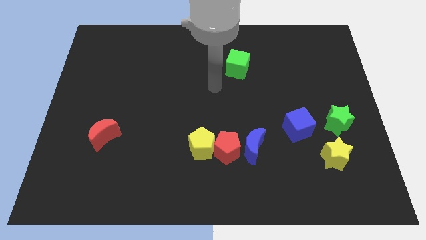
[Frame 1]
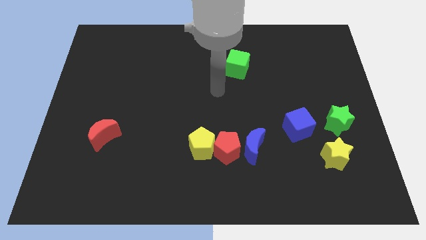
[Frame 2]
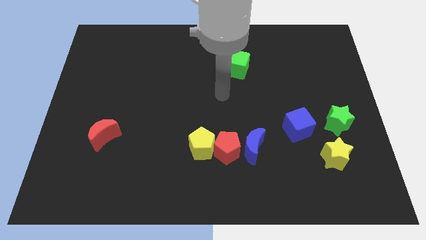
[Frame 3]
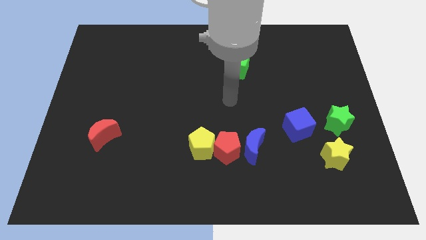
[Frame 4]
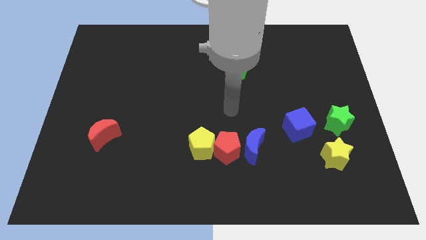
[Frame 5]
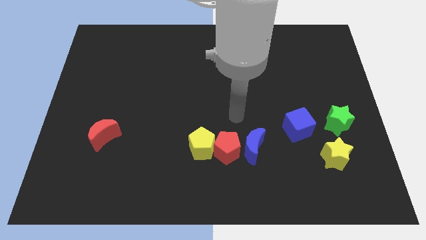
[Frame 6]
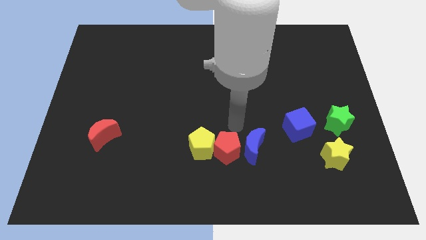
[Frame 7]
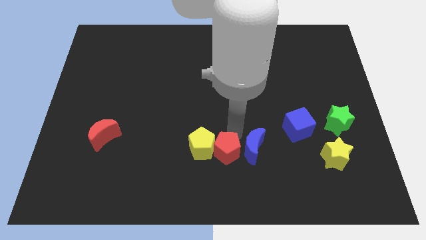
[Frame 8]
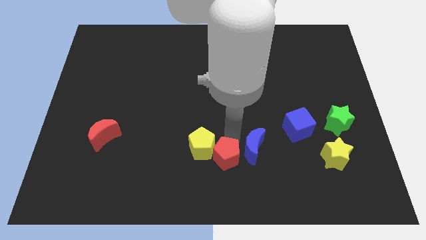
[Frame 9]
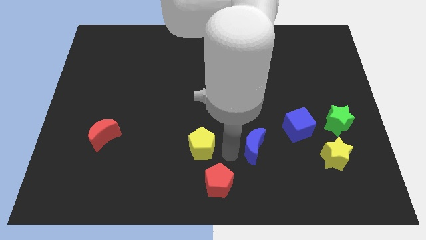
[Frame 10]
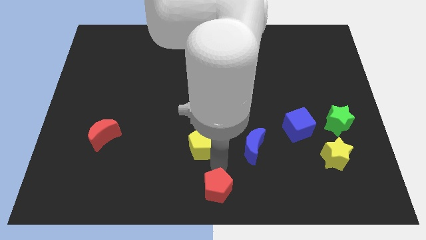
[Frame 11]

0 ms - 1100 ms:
separate the yellow pentagon from the red pentagon

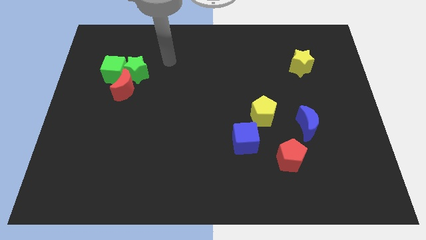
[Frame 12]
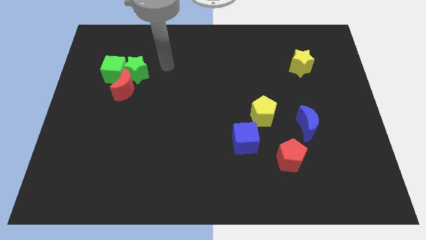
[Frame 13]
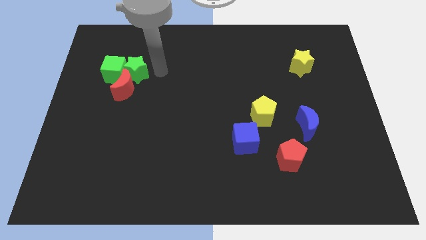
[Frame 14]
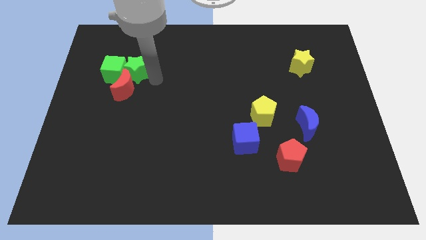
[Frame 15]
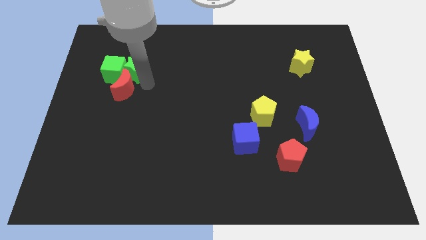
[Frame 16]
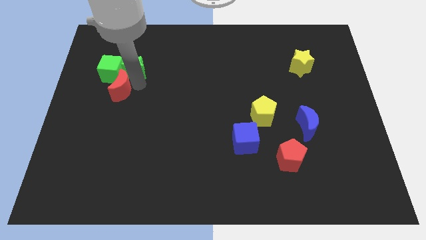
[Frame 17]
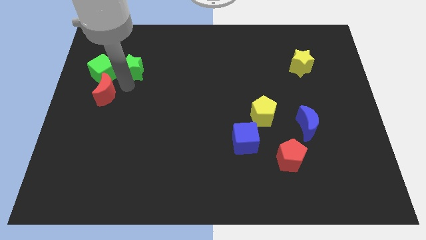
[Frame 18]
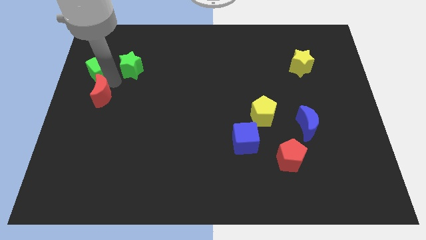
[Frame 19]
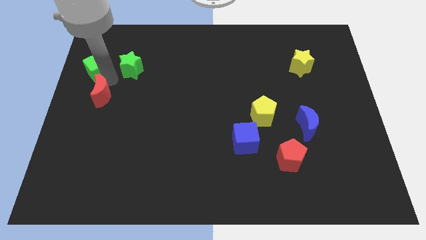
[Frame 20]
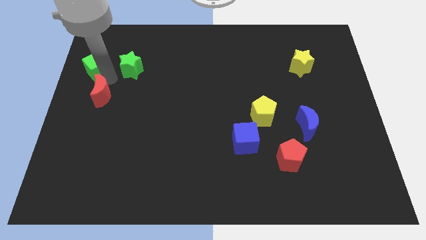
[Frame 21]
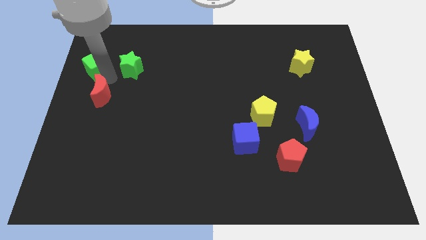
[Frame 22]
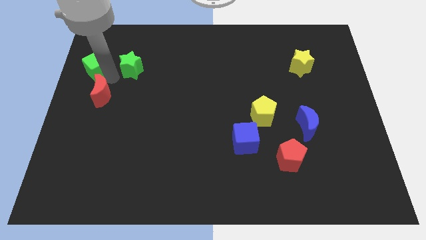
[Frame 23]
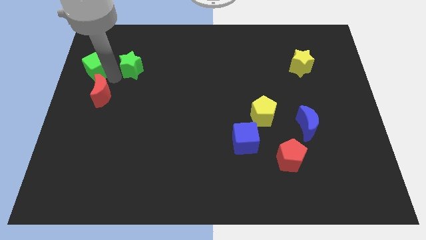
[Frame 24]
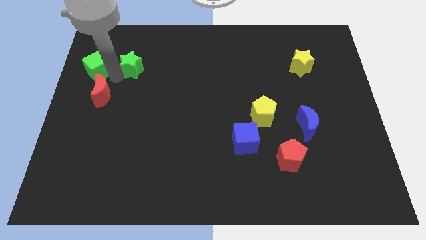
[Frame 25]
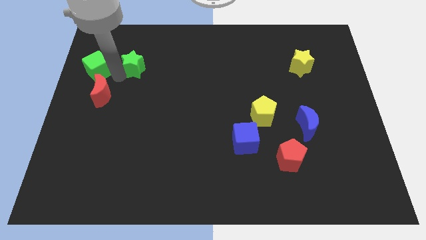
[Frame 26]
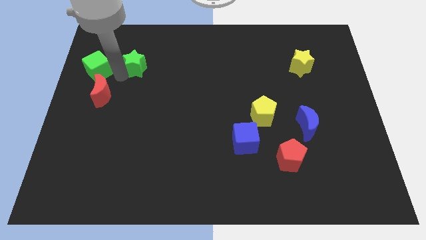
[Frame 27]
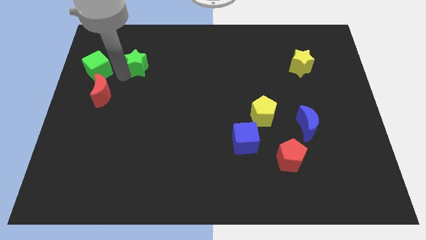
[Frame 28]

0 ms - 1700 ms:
separate the green star from the green cube and red moon

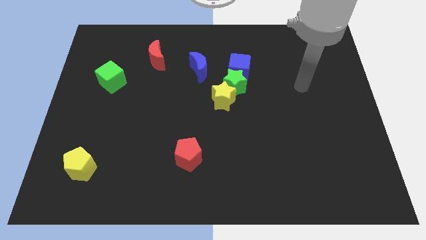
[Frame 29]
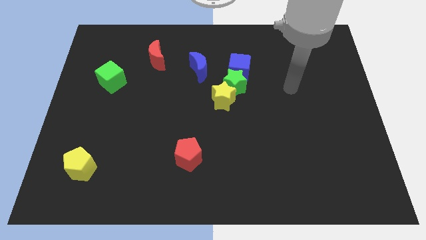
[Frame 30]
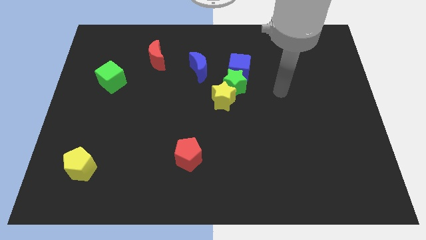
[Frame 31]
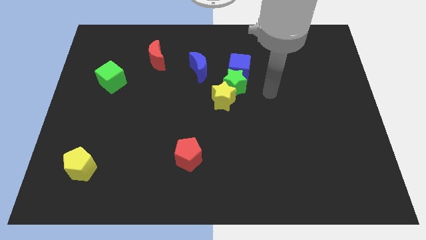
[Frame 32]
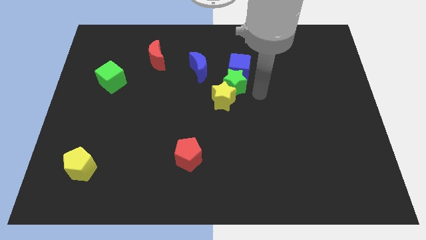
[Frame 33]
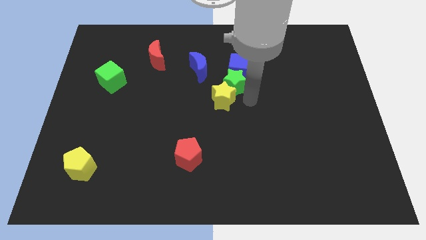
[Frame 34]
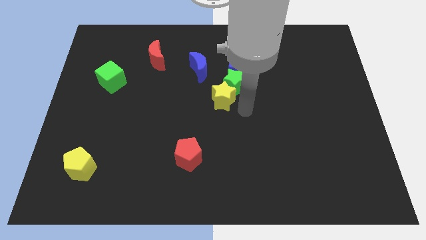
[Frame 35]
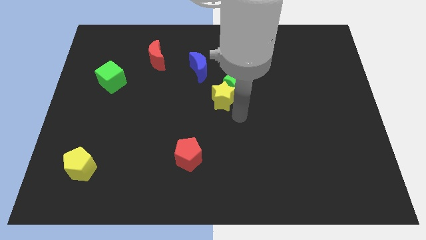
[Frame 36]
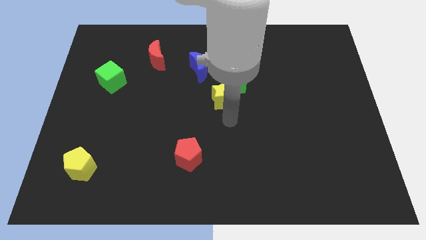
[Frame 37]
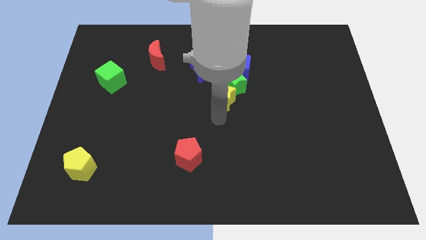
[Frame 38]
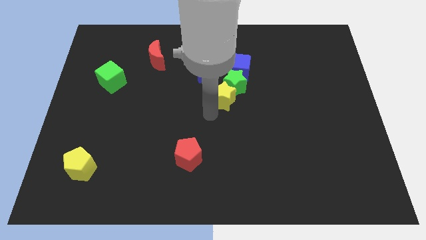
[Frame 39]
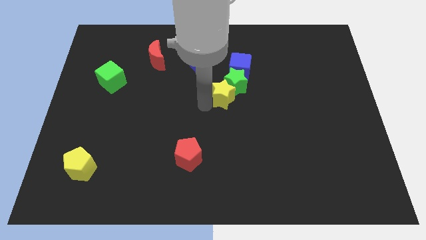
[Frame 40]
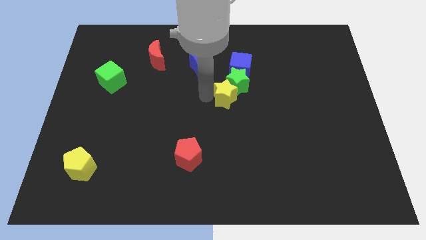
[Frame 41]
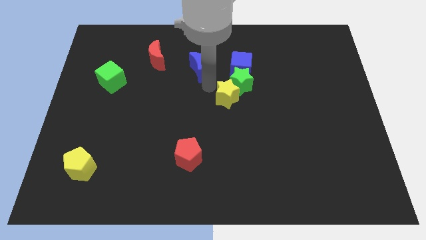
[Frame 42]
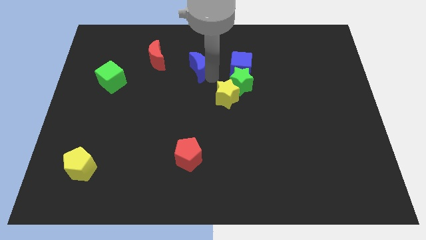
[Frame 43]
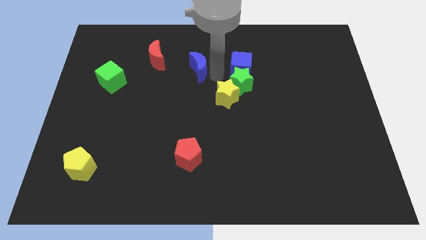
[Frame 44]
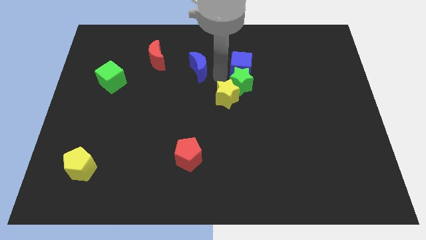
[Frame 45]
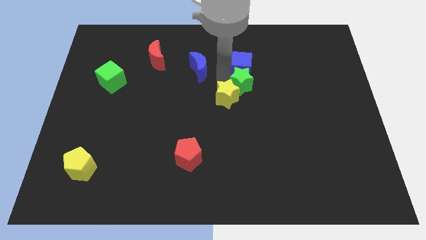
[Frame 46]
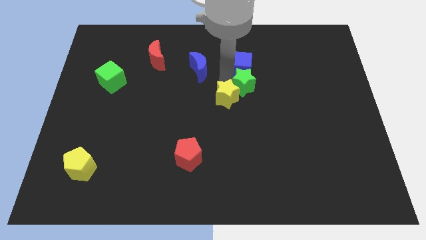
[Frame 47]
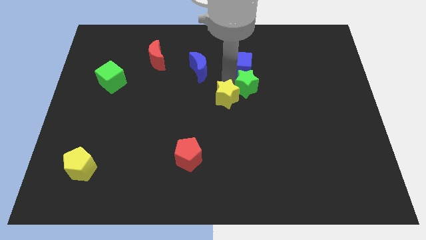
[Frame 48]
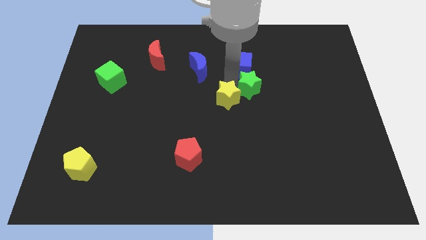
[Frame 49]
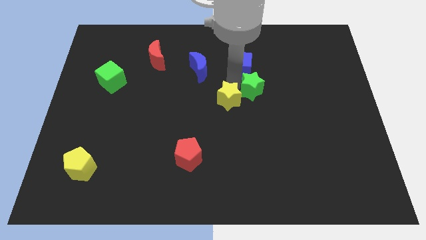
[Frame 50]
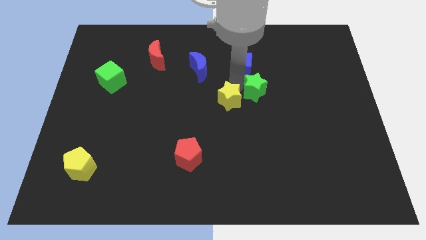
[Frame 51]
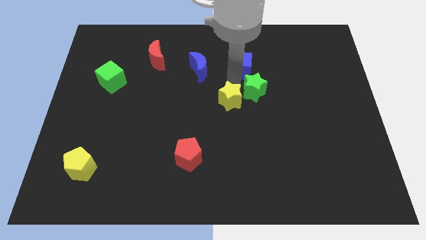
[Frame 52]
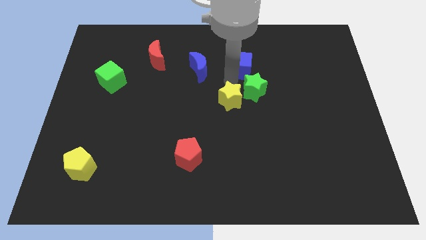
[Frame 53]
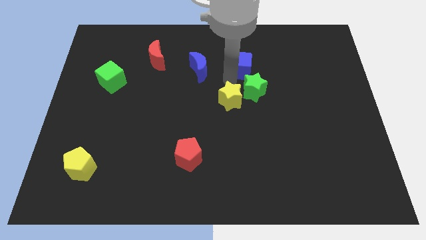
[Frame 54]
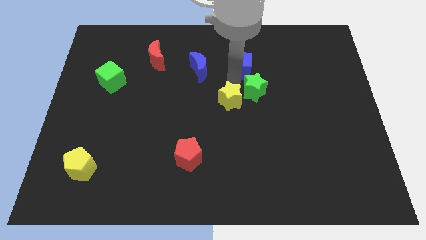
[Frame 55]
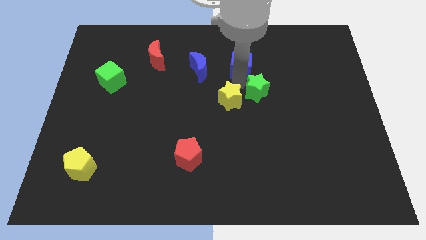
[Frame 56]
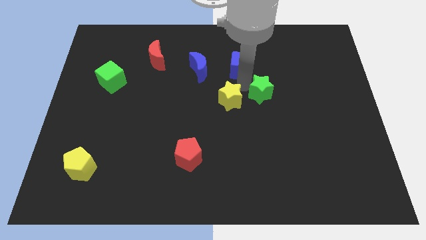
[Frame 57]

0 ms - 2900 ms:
move the green star away from the blue cube, yellow star, and blue moon

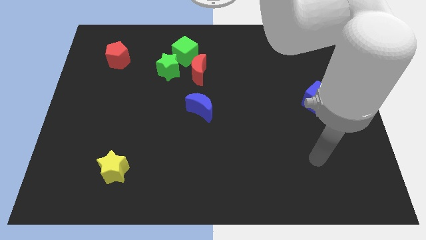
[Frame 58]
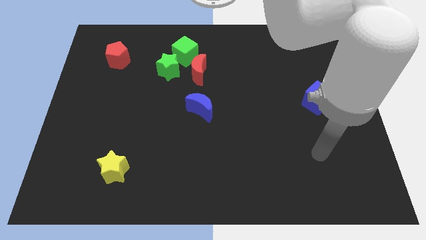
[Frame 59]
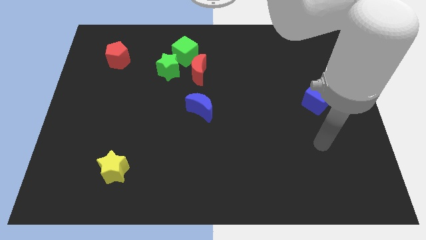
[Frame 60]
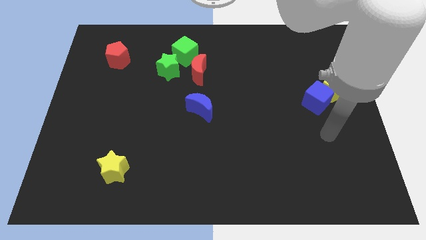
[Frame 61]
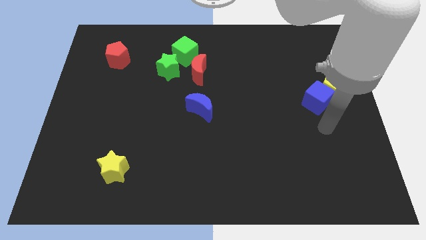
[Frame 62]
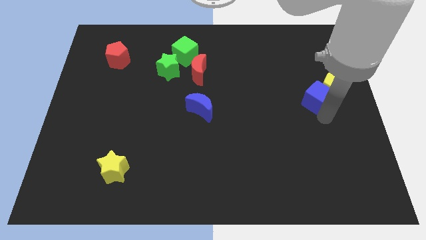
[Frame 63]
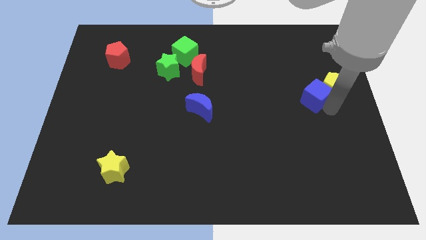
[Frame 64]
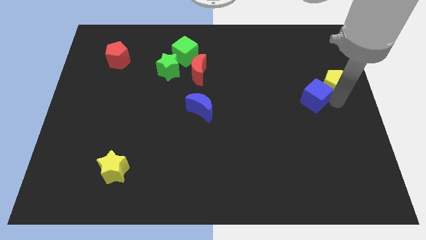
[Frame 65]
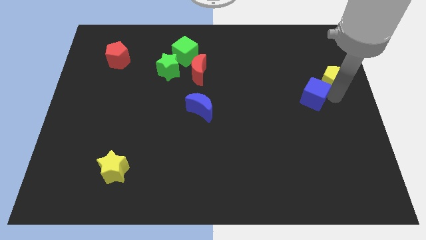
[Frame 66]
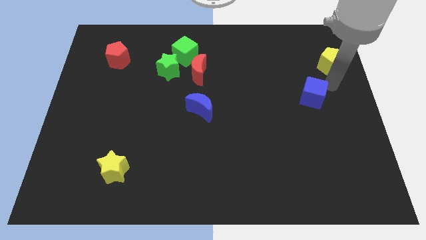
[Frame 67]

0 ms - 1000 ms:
pull the blue cube apart from the yellow pentagon

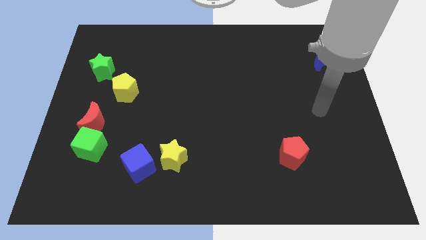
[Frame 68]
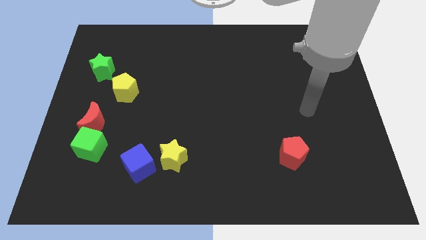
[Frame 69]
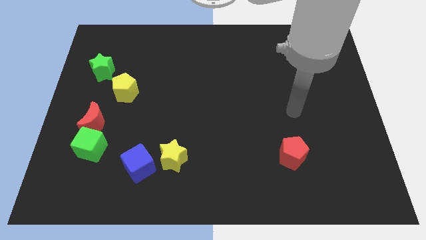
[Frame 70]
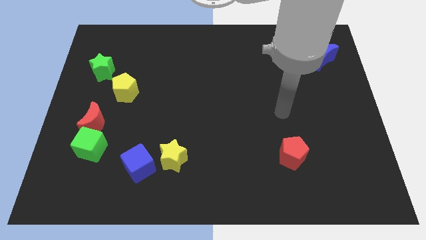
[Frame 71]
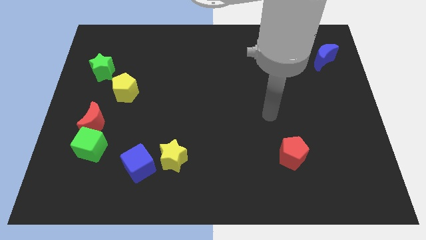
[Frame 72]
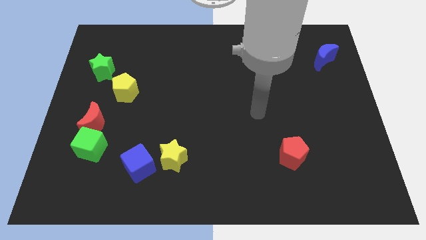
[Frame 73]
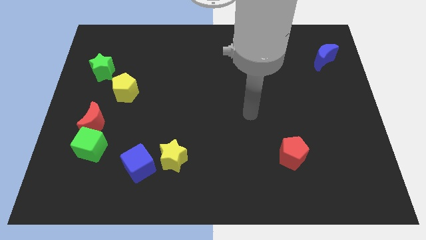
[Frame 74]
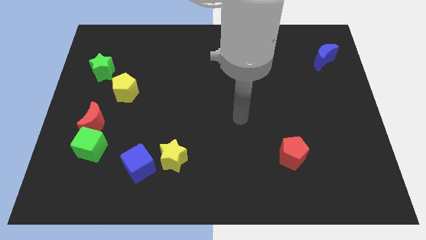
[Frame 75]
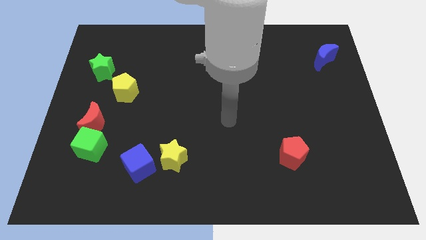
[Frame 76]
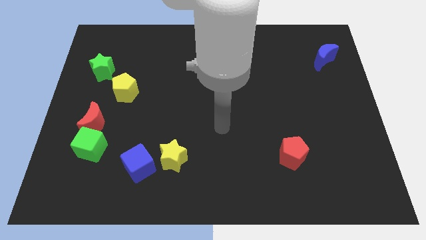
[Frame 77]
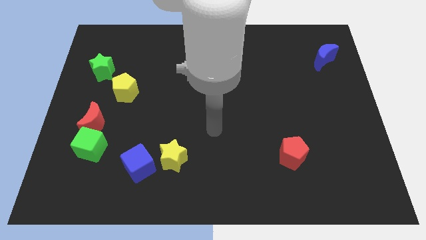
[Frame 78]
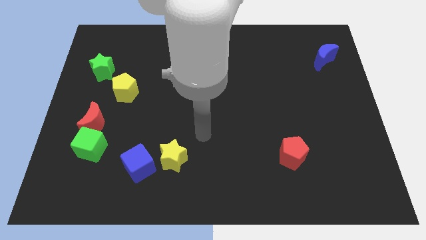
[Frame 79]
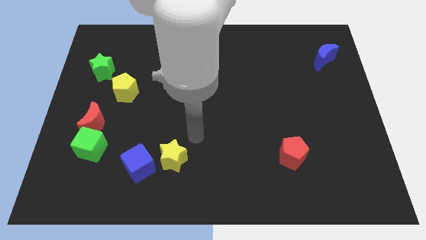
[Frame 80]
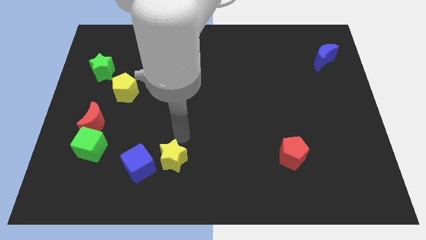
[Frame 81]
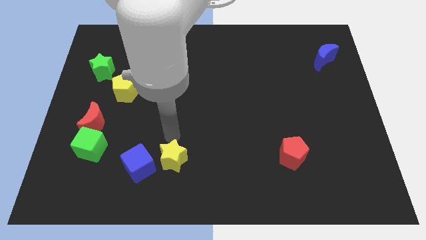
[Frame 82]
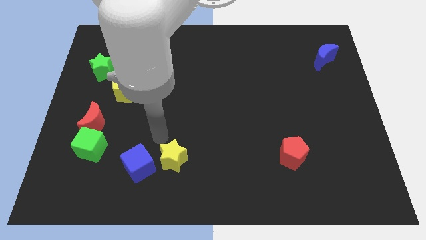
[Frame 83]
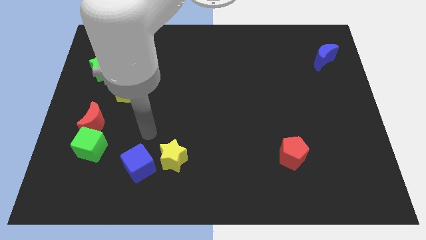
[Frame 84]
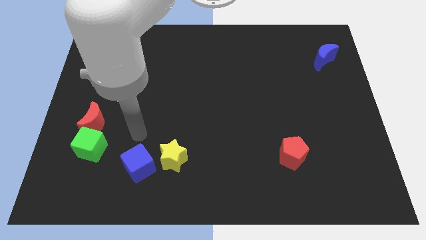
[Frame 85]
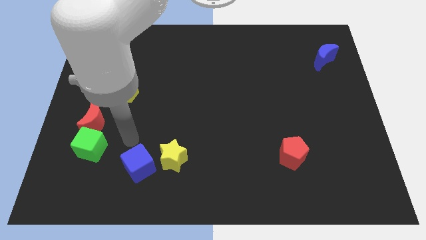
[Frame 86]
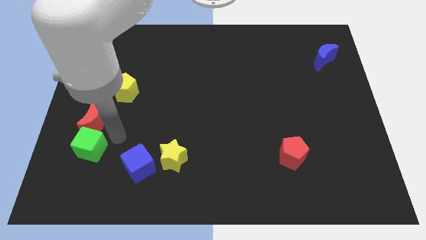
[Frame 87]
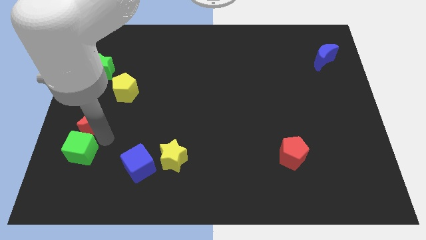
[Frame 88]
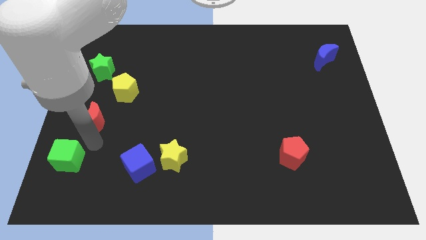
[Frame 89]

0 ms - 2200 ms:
move the red moon away from the green cube

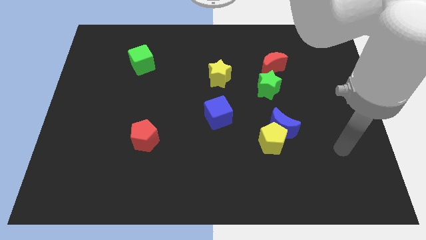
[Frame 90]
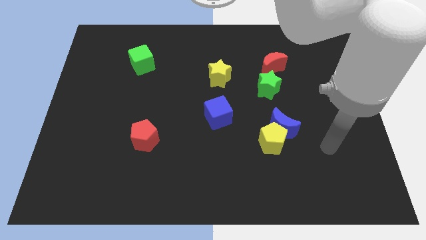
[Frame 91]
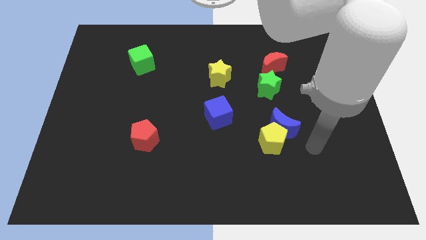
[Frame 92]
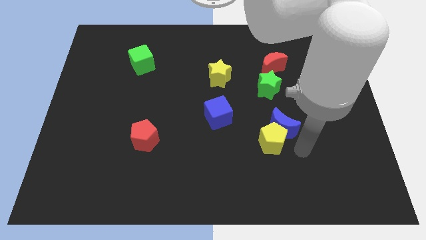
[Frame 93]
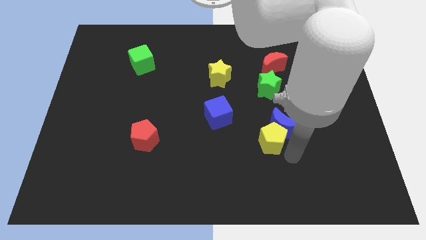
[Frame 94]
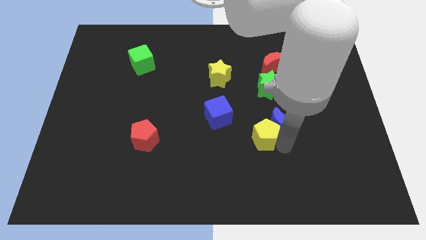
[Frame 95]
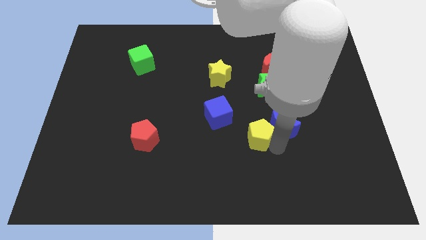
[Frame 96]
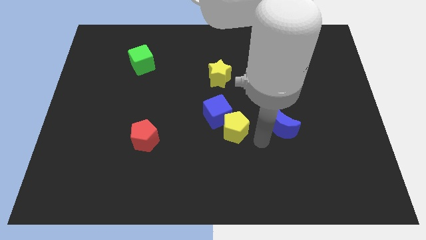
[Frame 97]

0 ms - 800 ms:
separate the blue moon from the yellow pentagon
